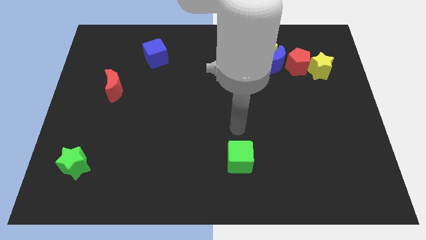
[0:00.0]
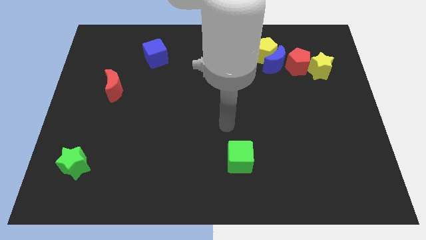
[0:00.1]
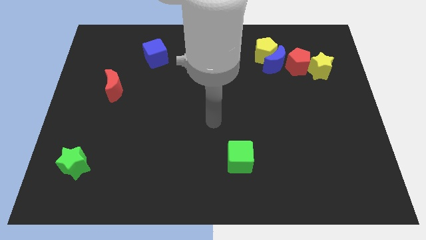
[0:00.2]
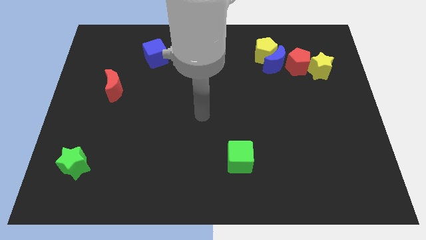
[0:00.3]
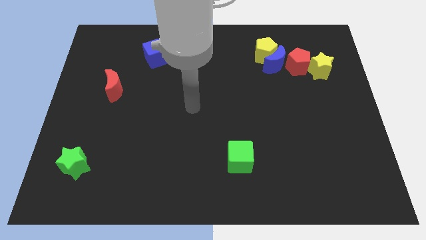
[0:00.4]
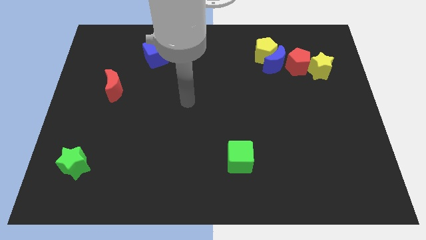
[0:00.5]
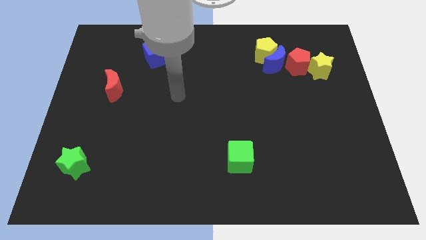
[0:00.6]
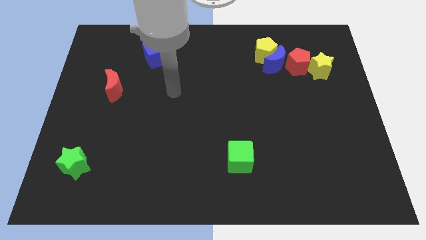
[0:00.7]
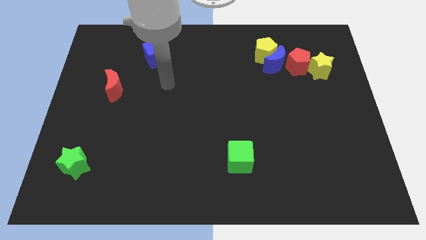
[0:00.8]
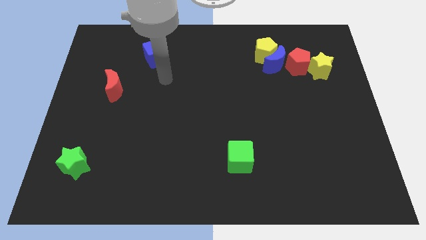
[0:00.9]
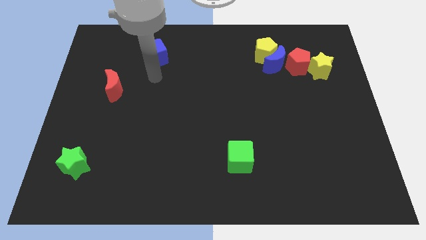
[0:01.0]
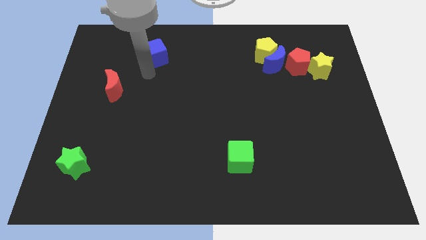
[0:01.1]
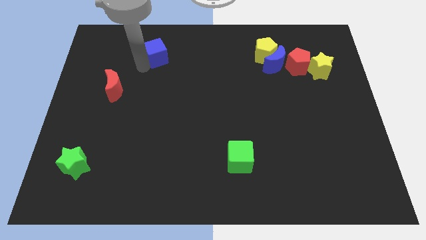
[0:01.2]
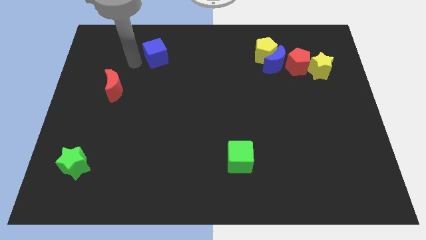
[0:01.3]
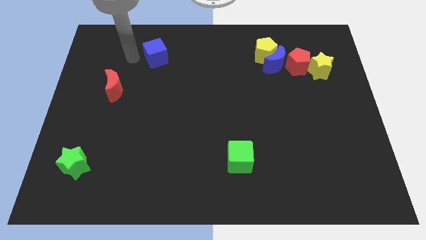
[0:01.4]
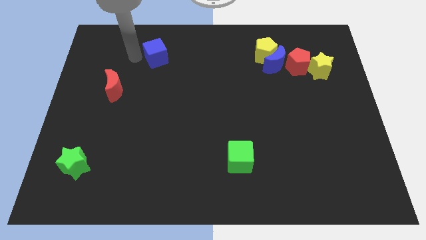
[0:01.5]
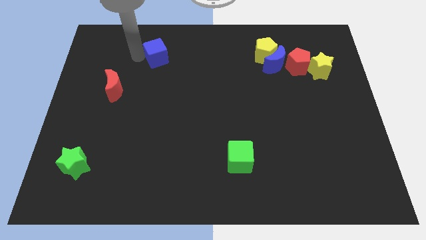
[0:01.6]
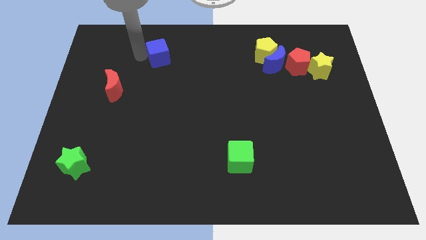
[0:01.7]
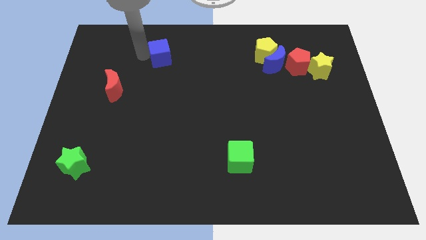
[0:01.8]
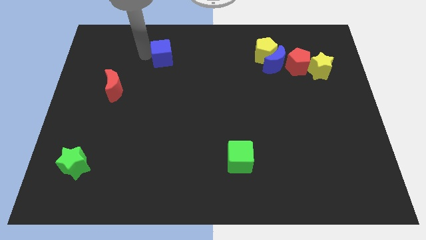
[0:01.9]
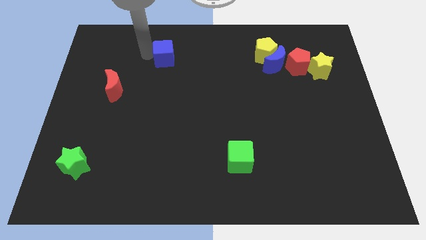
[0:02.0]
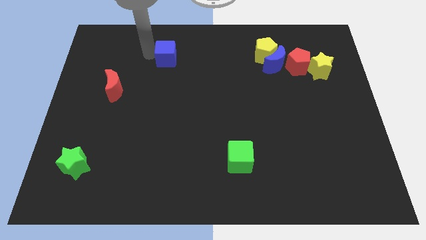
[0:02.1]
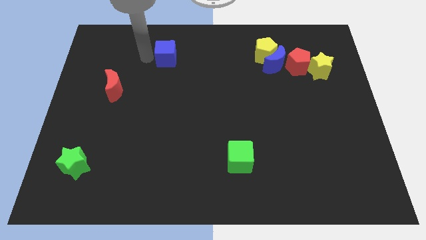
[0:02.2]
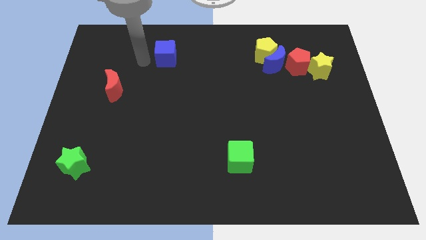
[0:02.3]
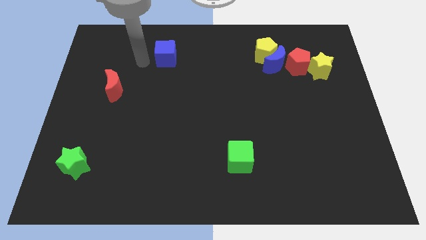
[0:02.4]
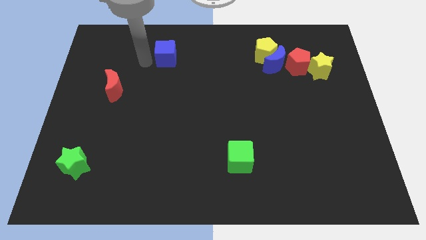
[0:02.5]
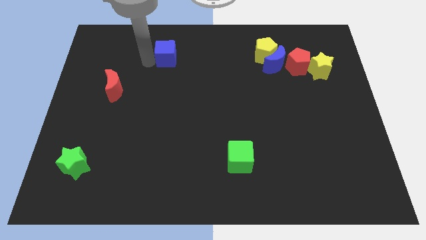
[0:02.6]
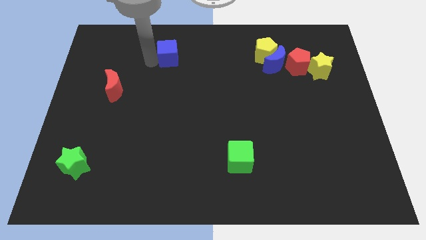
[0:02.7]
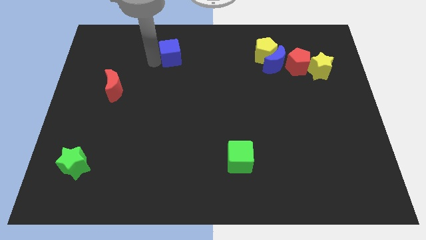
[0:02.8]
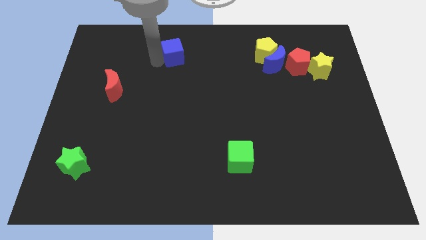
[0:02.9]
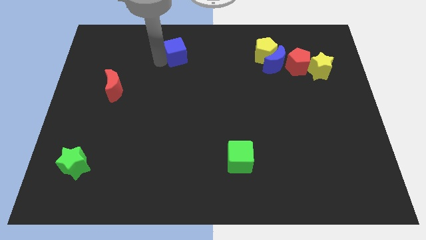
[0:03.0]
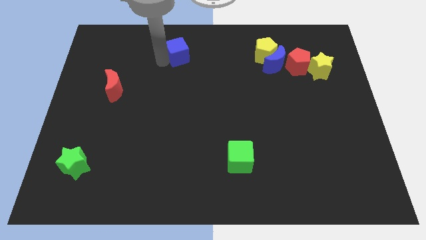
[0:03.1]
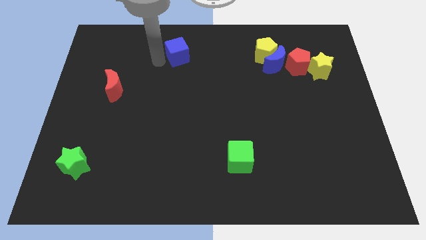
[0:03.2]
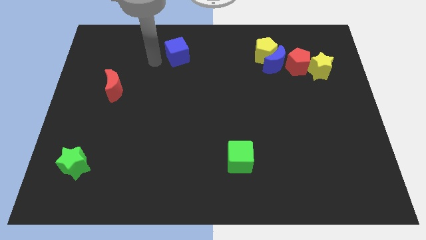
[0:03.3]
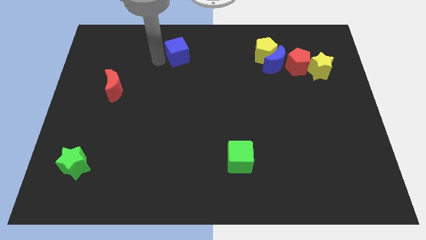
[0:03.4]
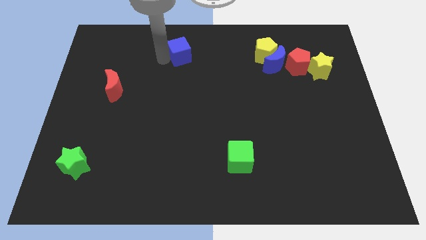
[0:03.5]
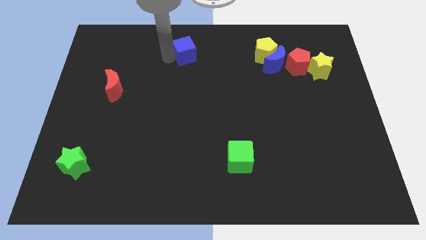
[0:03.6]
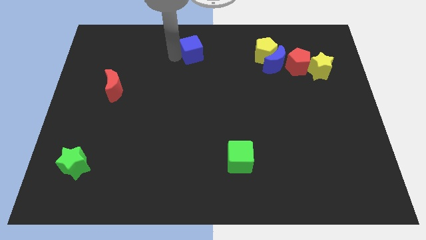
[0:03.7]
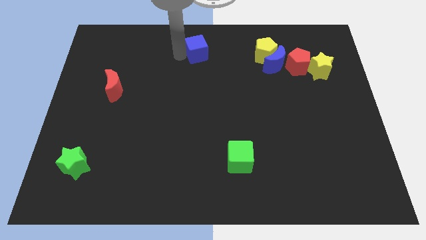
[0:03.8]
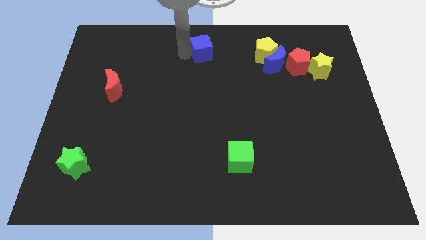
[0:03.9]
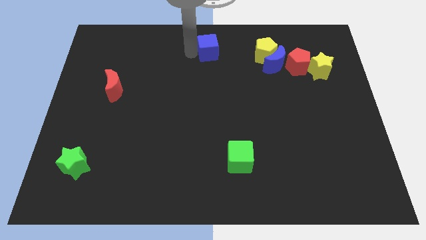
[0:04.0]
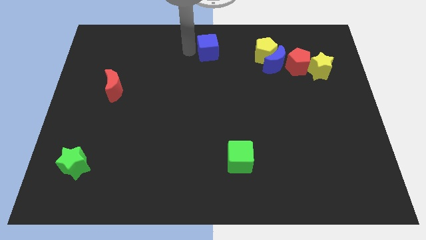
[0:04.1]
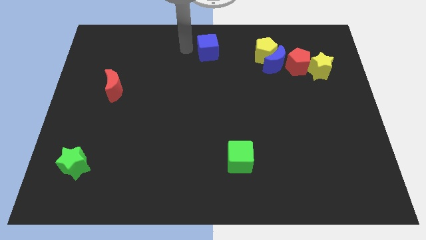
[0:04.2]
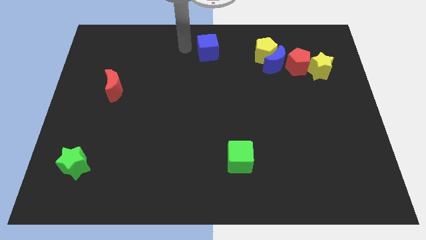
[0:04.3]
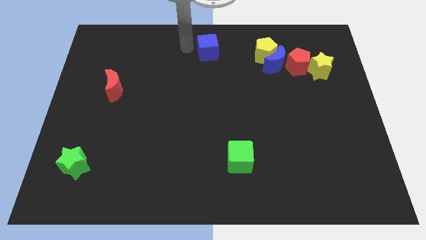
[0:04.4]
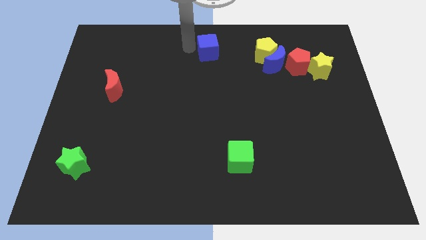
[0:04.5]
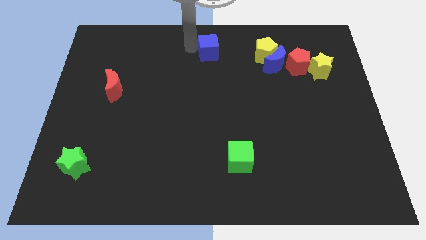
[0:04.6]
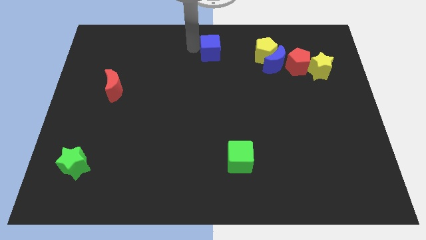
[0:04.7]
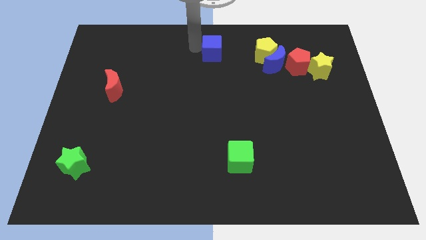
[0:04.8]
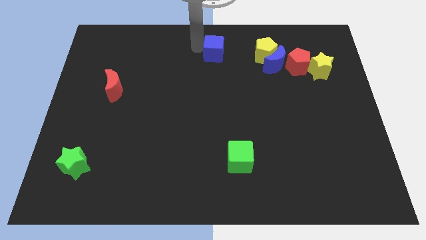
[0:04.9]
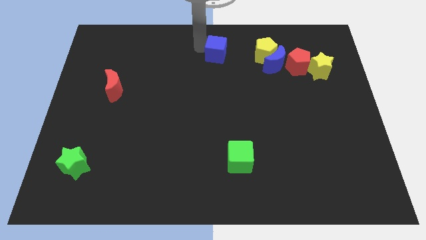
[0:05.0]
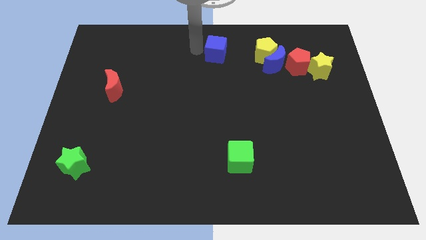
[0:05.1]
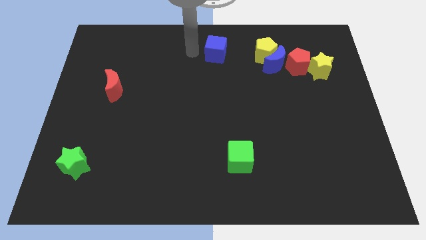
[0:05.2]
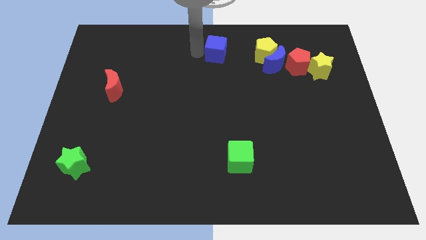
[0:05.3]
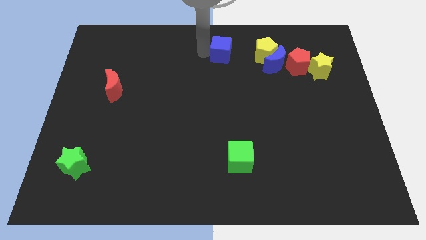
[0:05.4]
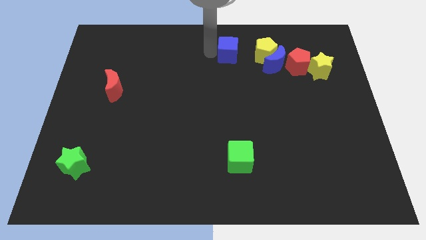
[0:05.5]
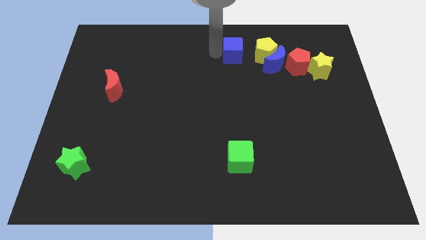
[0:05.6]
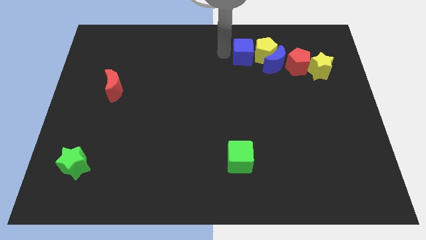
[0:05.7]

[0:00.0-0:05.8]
push the blue cube next to the yellow pentagon

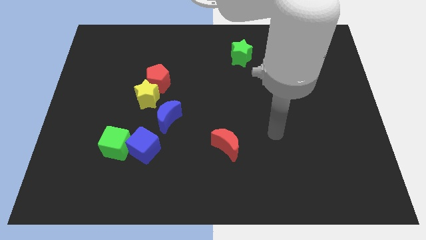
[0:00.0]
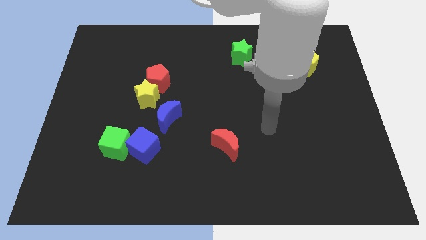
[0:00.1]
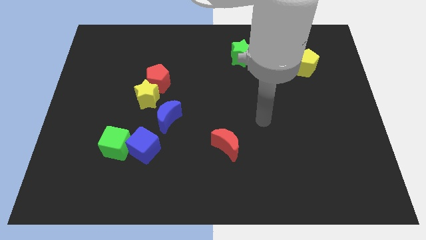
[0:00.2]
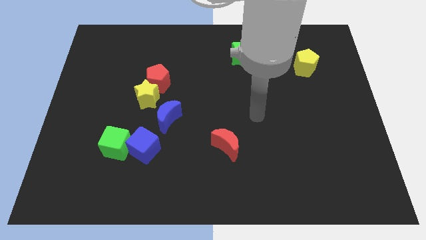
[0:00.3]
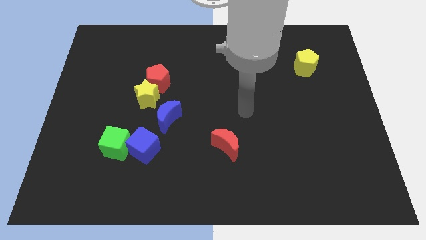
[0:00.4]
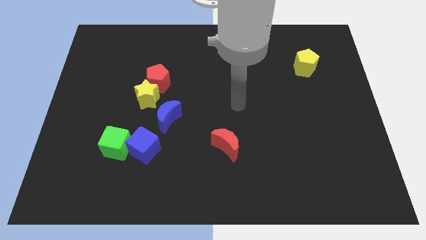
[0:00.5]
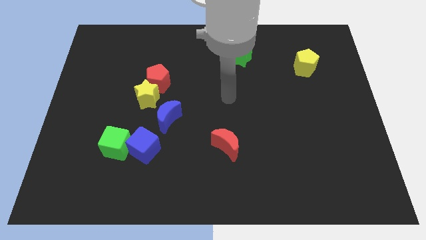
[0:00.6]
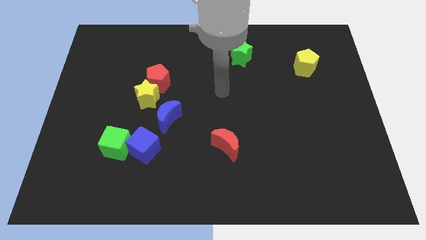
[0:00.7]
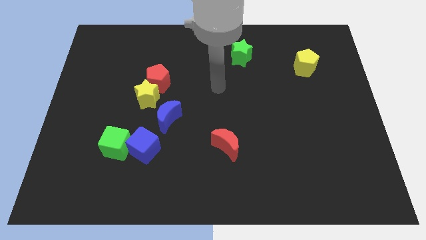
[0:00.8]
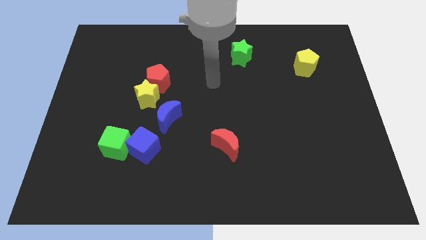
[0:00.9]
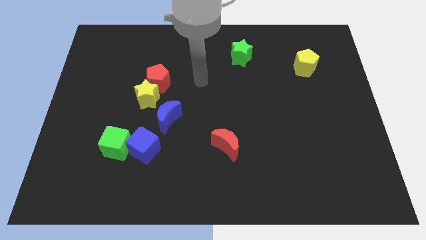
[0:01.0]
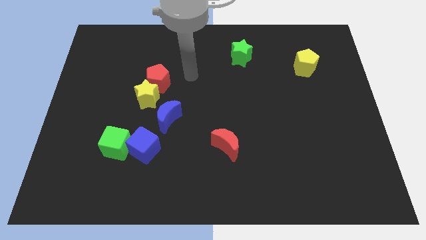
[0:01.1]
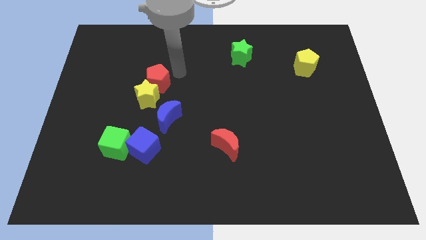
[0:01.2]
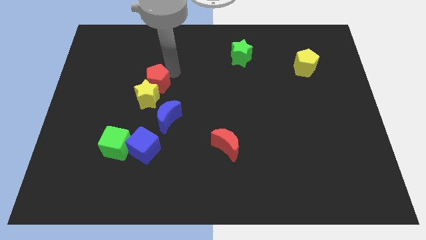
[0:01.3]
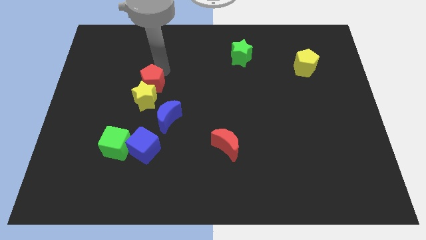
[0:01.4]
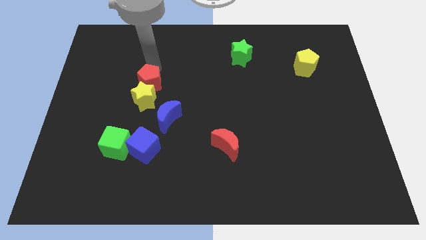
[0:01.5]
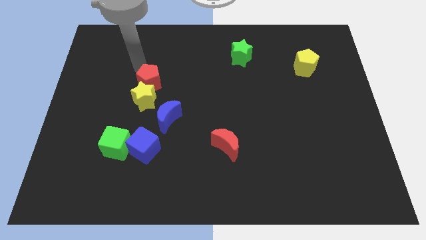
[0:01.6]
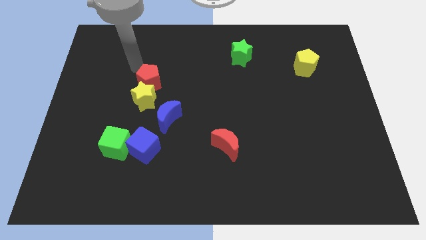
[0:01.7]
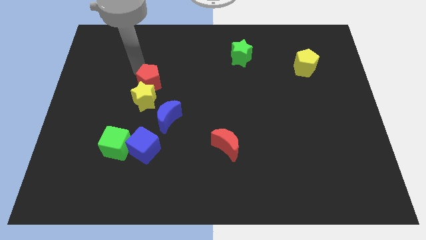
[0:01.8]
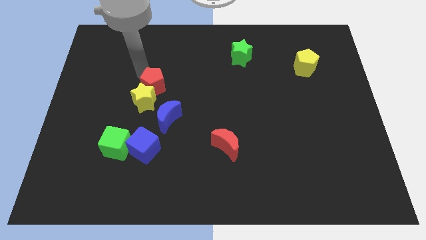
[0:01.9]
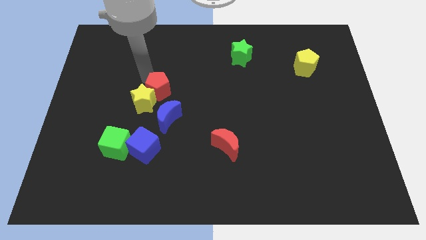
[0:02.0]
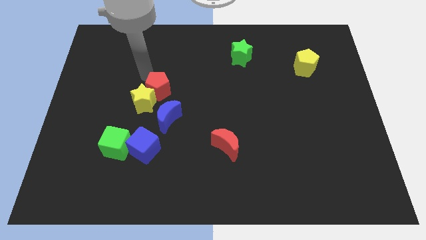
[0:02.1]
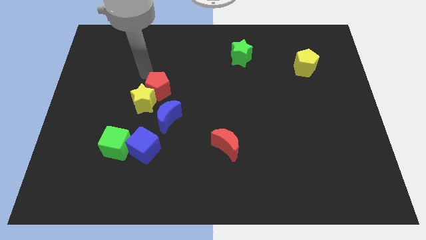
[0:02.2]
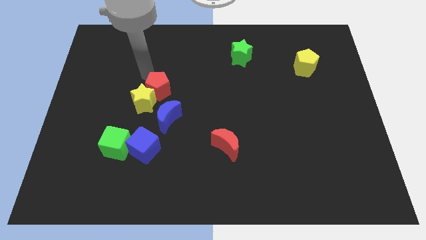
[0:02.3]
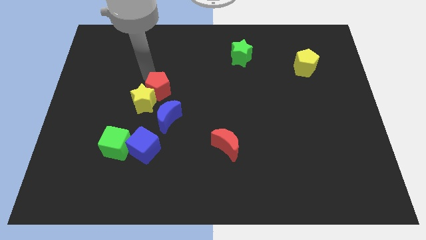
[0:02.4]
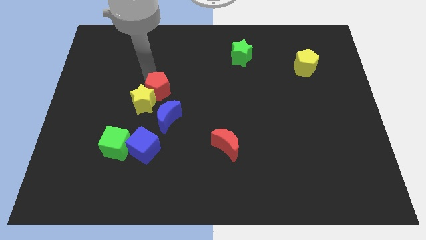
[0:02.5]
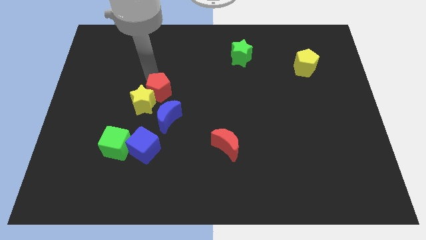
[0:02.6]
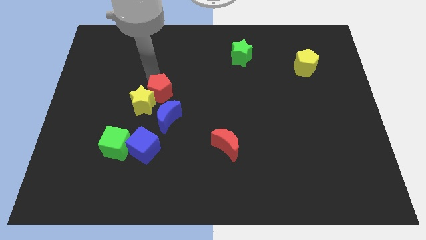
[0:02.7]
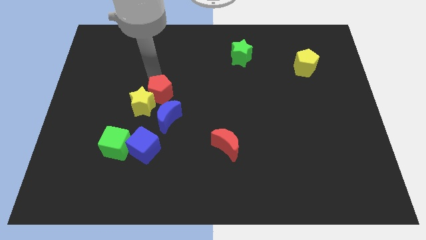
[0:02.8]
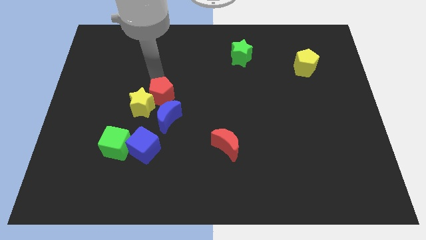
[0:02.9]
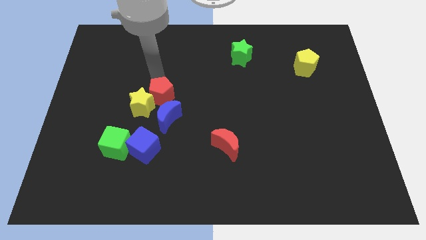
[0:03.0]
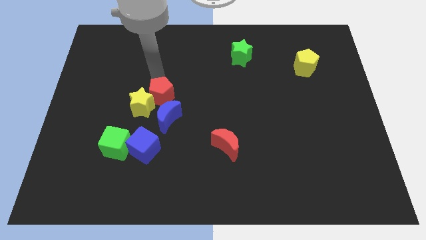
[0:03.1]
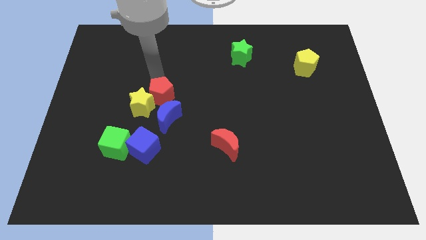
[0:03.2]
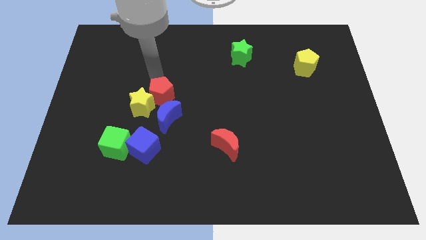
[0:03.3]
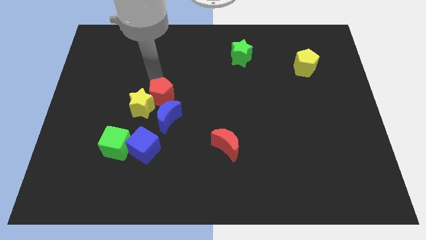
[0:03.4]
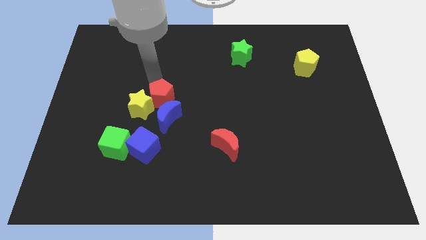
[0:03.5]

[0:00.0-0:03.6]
slide the red pentagon close to the blue moon
